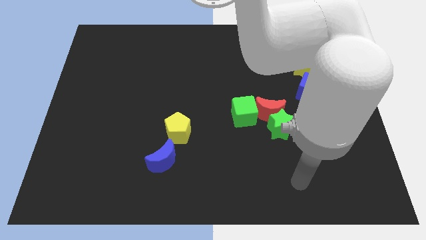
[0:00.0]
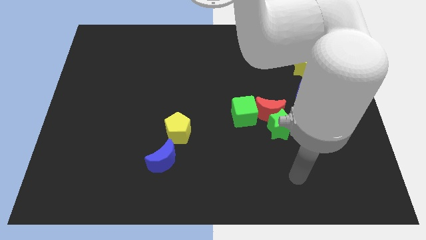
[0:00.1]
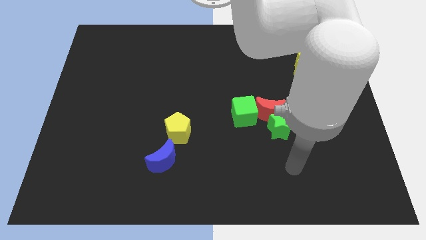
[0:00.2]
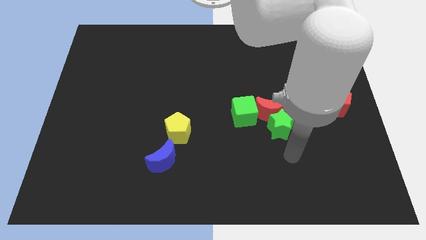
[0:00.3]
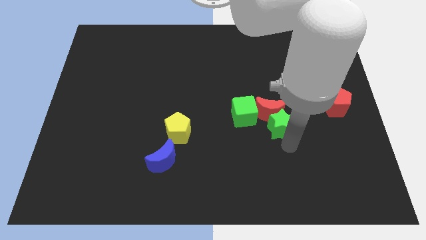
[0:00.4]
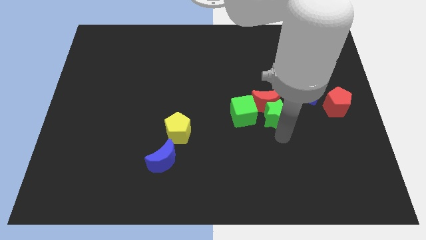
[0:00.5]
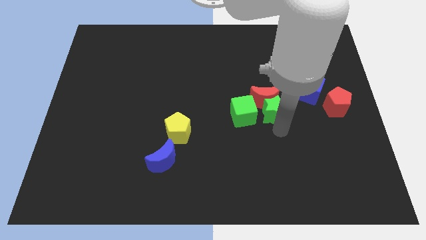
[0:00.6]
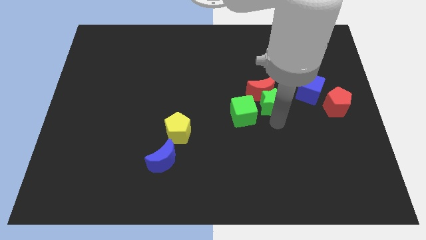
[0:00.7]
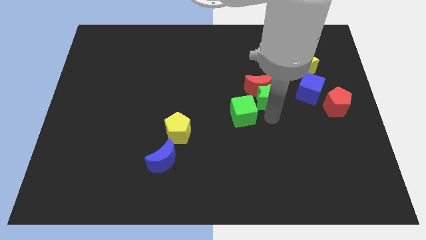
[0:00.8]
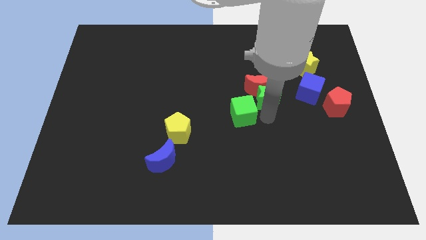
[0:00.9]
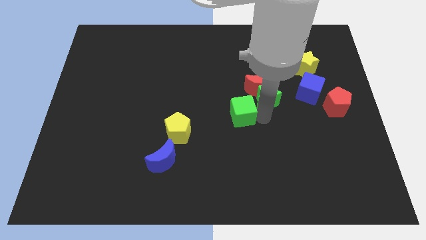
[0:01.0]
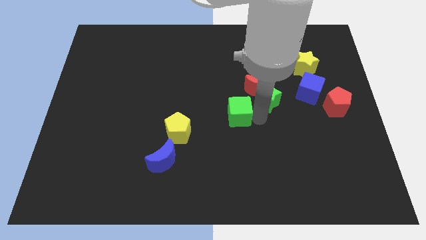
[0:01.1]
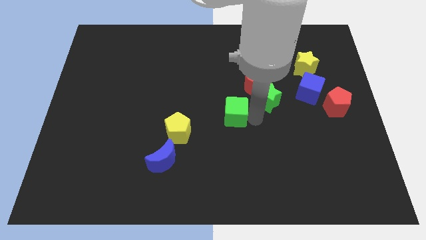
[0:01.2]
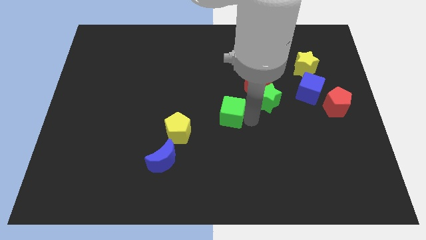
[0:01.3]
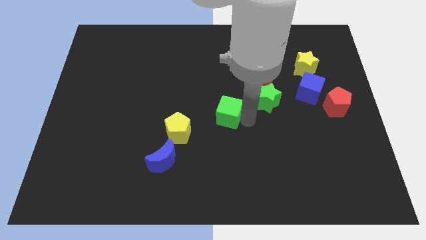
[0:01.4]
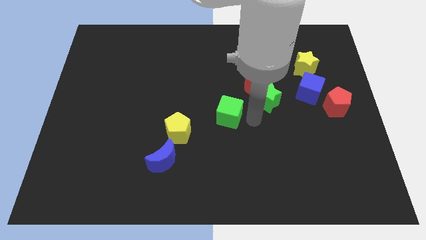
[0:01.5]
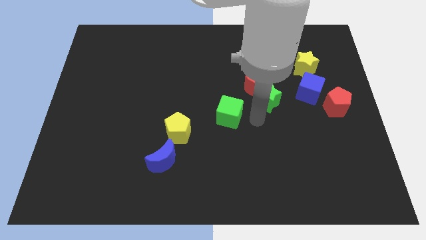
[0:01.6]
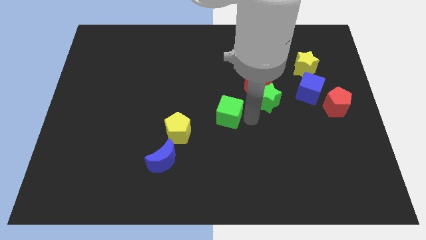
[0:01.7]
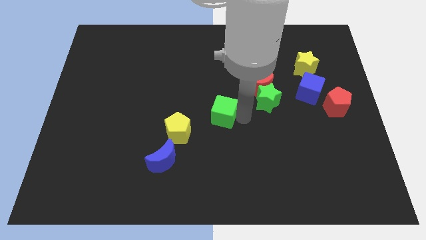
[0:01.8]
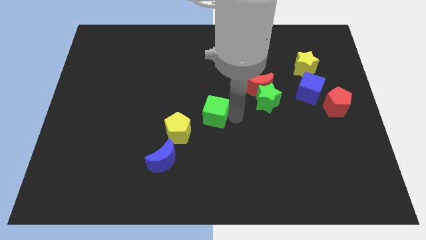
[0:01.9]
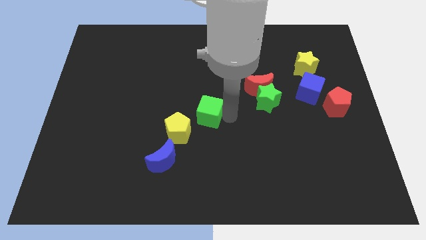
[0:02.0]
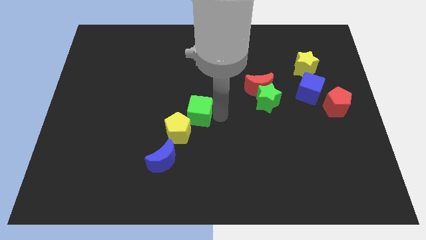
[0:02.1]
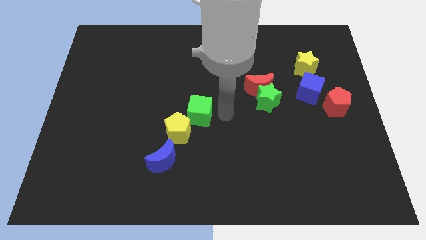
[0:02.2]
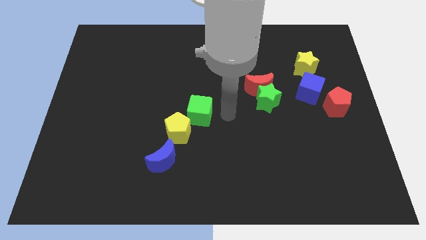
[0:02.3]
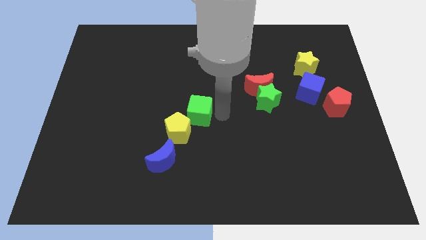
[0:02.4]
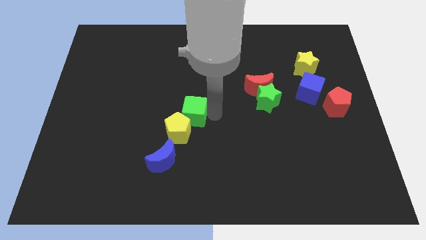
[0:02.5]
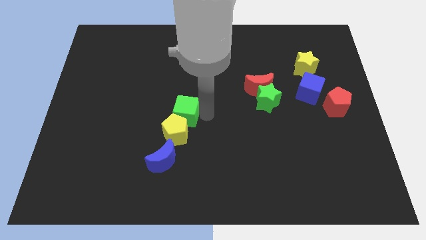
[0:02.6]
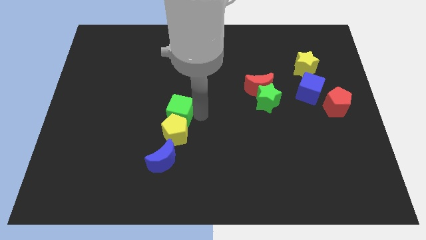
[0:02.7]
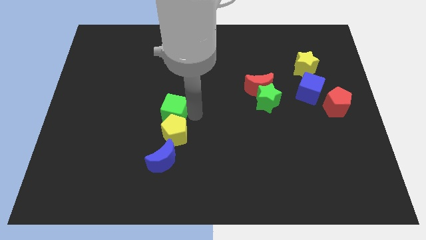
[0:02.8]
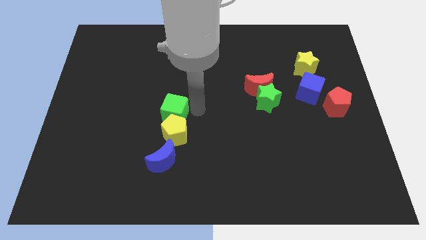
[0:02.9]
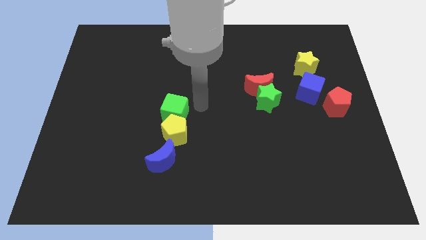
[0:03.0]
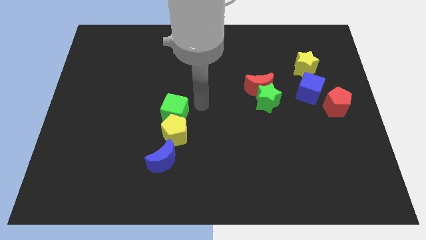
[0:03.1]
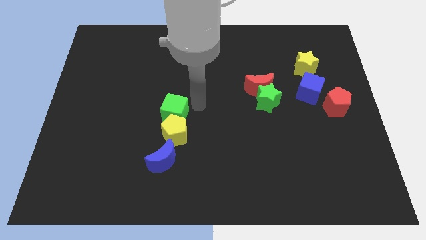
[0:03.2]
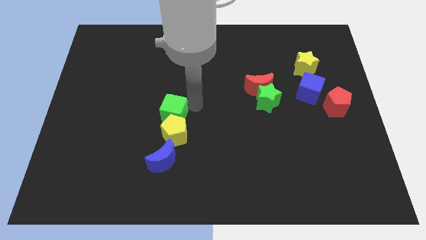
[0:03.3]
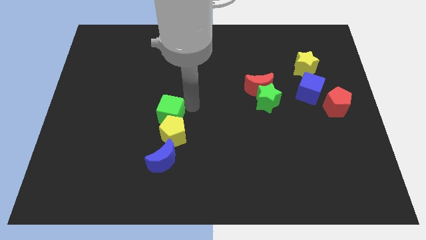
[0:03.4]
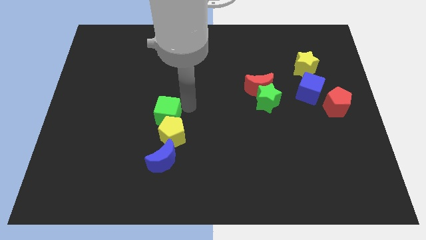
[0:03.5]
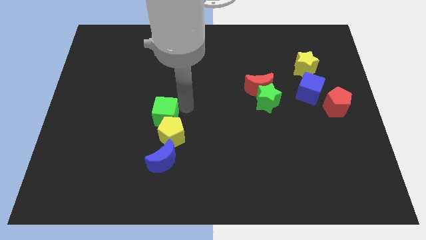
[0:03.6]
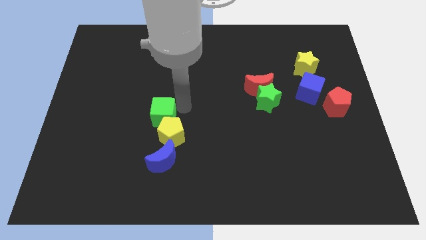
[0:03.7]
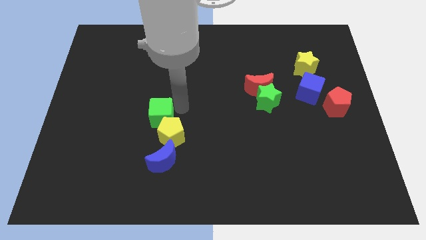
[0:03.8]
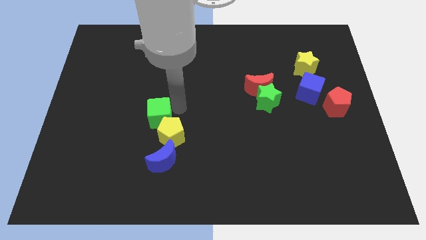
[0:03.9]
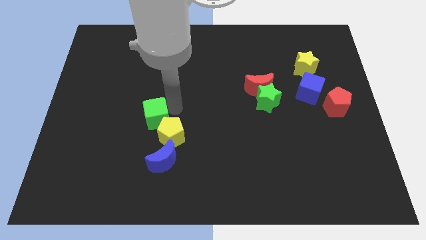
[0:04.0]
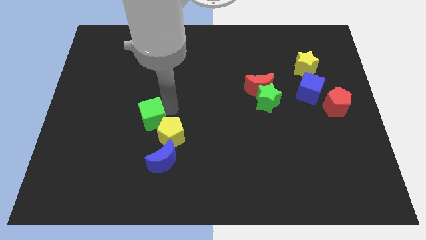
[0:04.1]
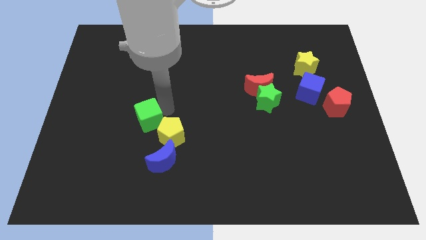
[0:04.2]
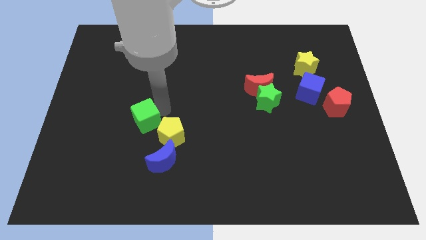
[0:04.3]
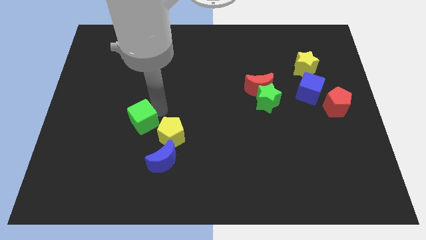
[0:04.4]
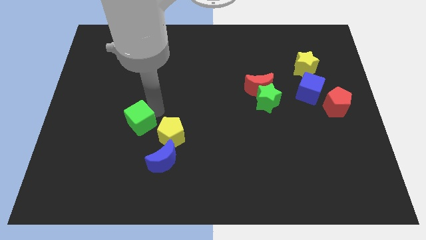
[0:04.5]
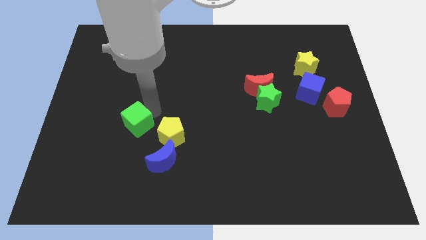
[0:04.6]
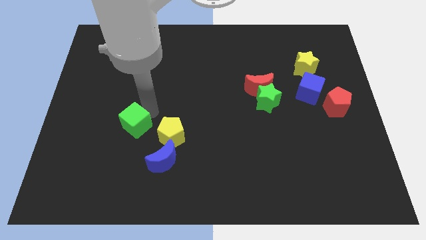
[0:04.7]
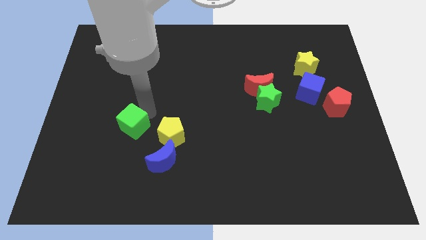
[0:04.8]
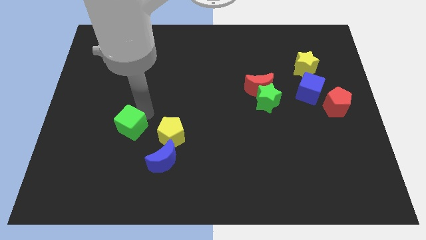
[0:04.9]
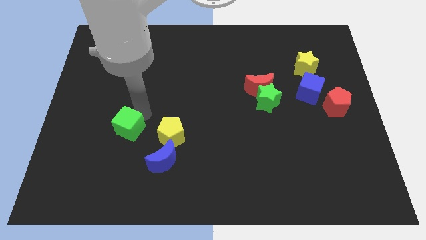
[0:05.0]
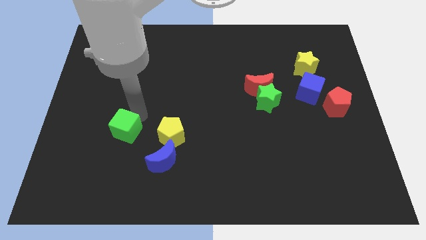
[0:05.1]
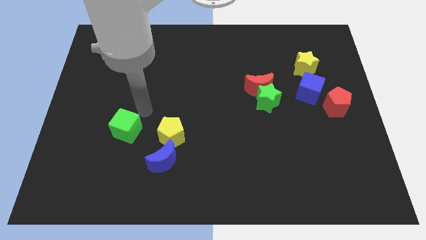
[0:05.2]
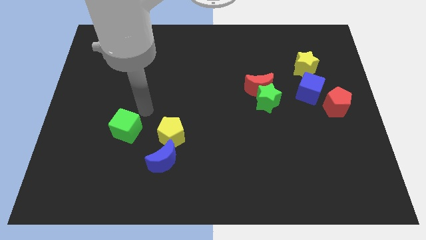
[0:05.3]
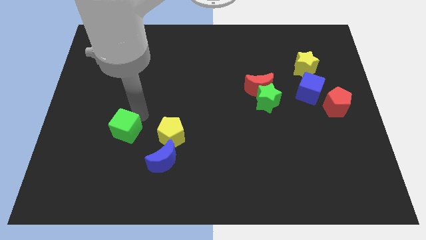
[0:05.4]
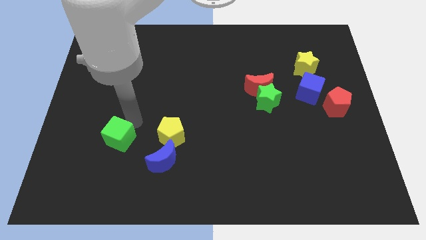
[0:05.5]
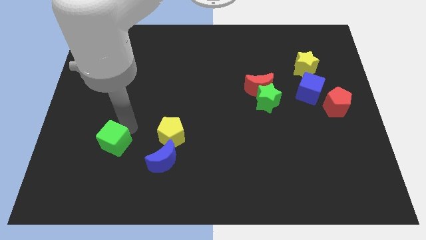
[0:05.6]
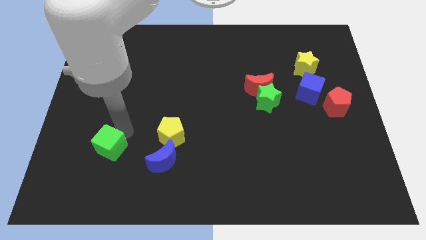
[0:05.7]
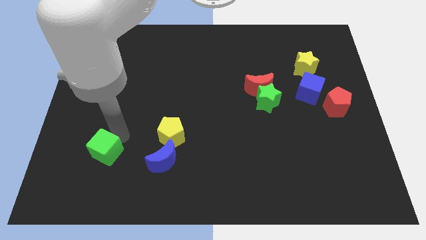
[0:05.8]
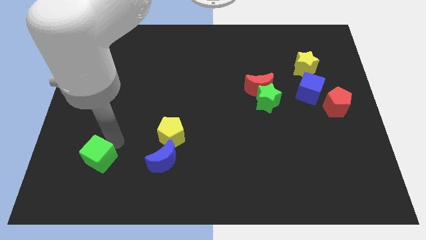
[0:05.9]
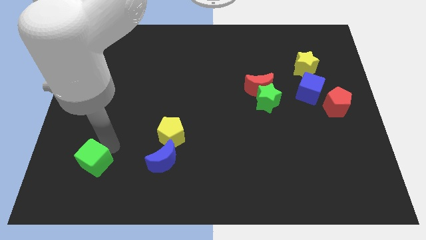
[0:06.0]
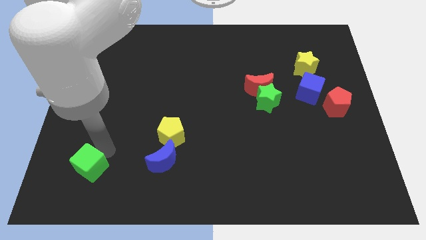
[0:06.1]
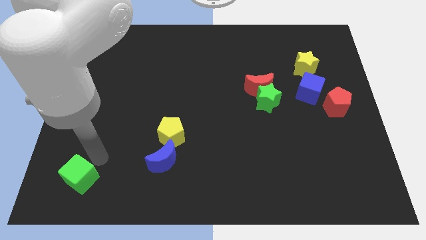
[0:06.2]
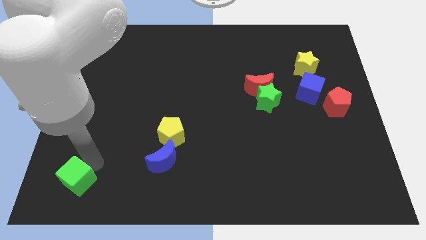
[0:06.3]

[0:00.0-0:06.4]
push the green cube to the bottom left corner
